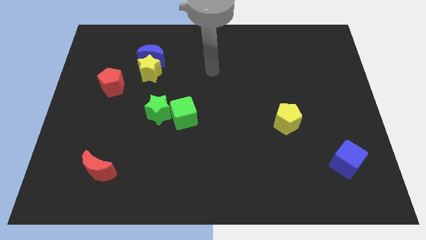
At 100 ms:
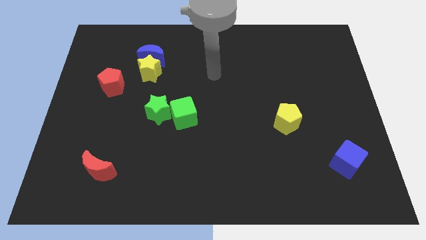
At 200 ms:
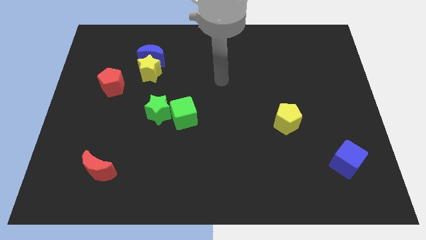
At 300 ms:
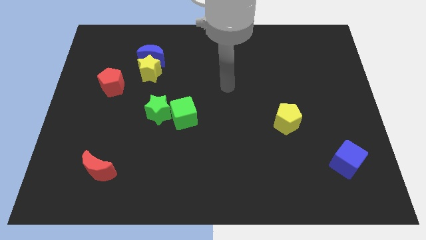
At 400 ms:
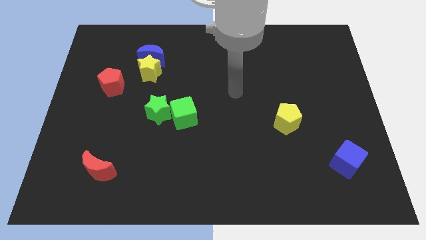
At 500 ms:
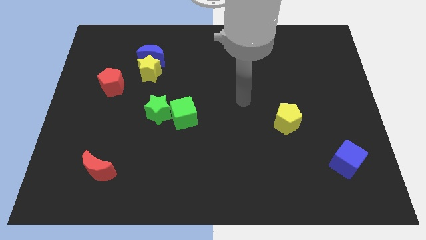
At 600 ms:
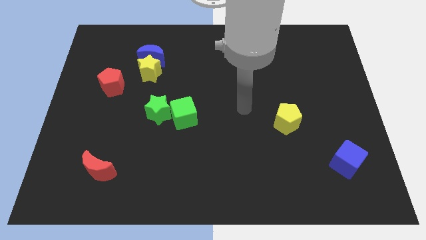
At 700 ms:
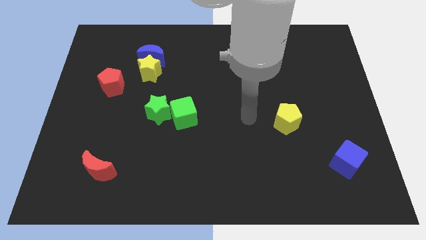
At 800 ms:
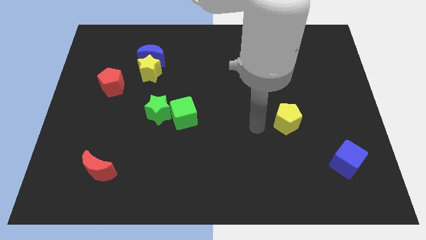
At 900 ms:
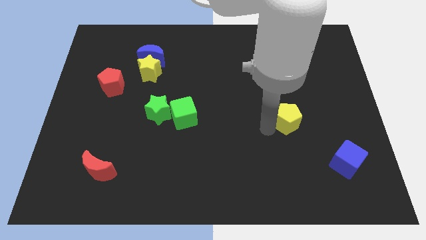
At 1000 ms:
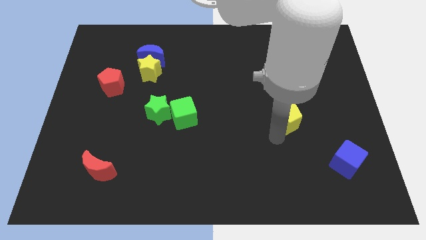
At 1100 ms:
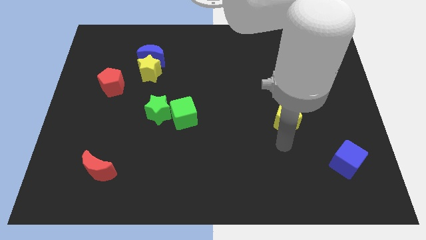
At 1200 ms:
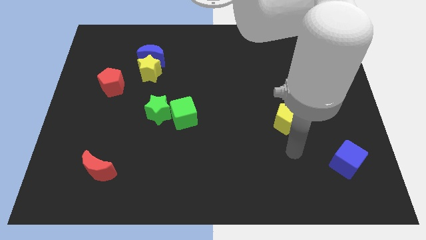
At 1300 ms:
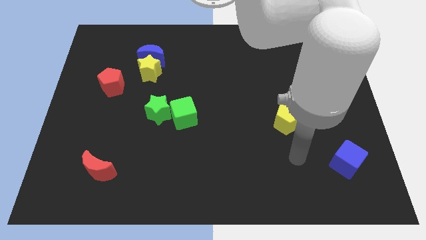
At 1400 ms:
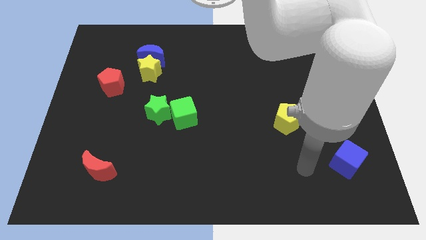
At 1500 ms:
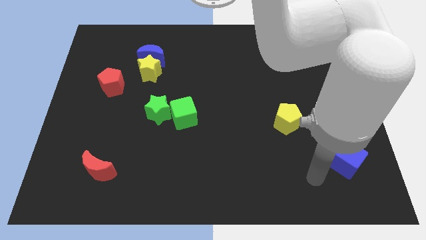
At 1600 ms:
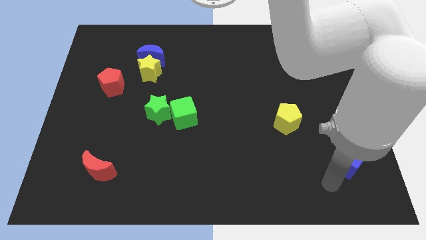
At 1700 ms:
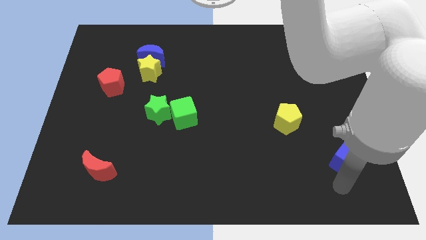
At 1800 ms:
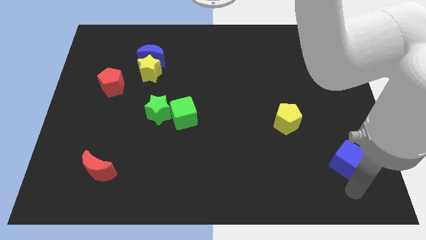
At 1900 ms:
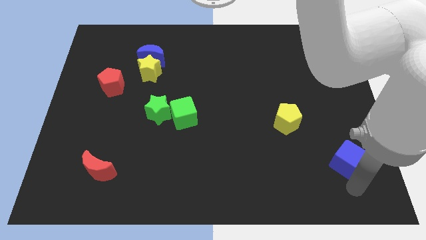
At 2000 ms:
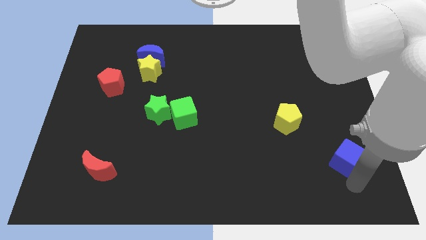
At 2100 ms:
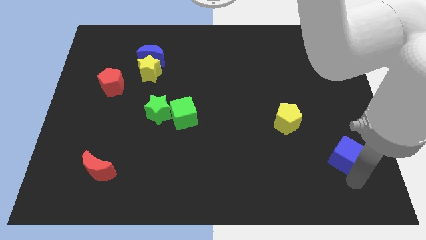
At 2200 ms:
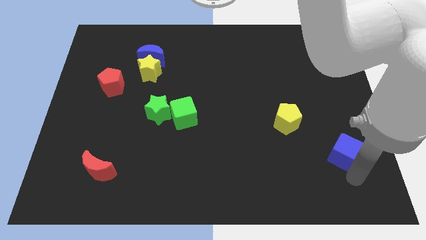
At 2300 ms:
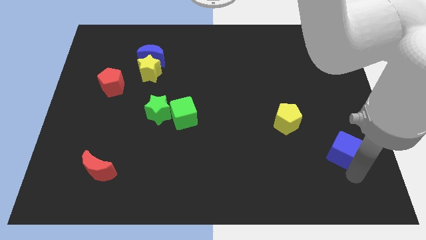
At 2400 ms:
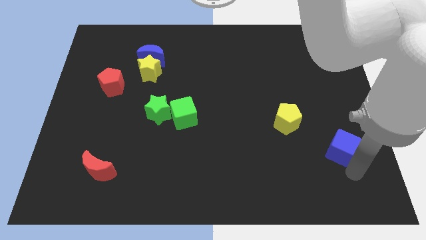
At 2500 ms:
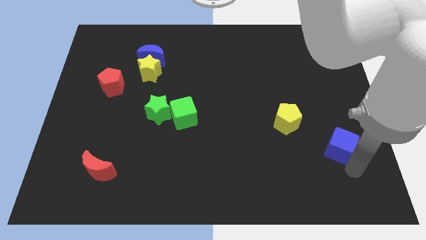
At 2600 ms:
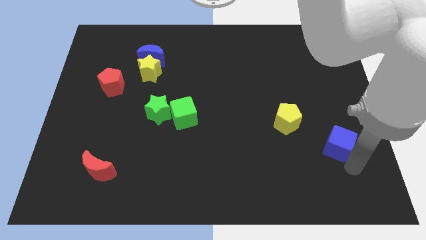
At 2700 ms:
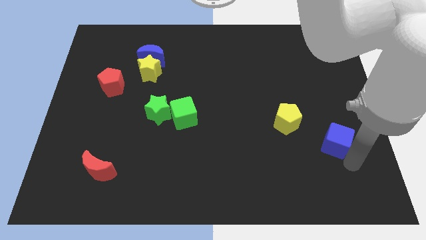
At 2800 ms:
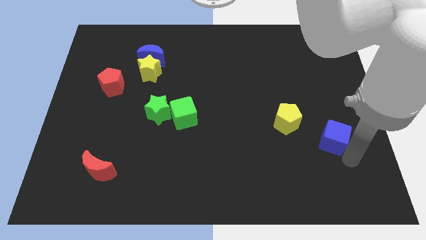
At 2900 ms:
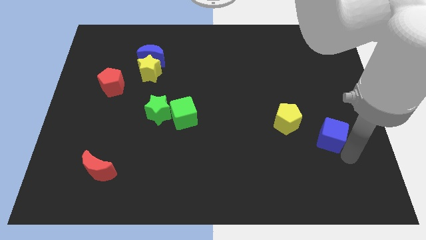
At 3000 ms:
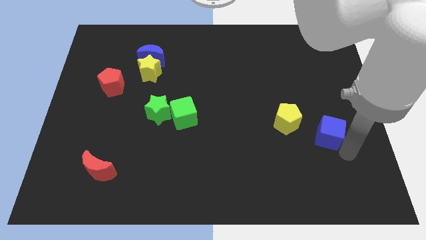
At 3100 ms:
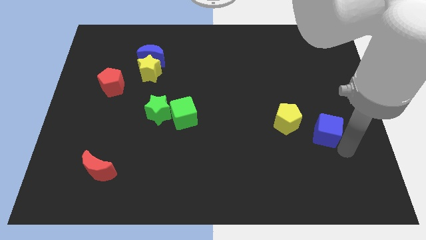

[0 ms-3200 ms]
slide the blue cube upwards slightly

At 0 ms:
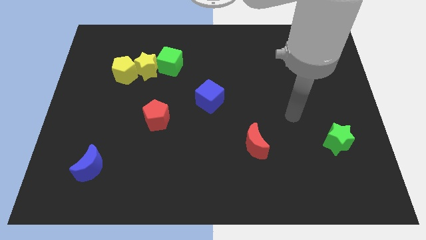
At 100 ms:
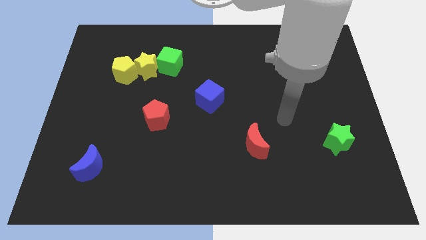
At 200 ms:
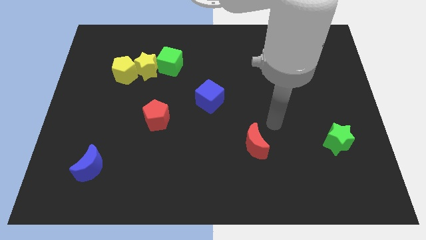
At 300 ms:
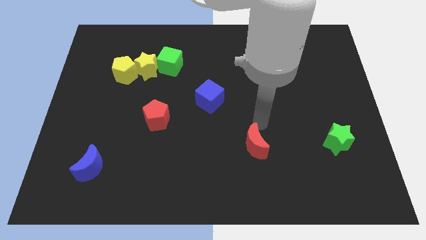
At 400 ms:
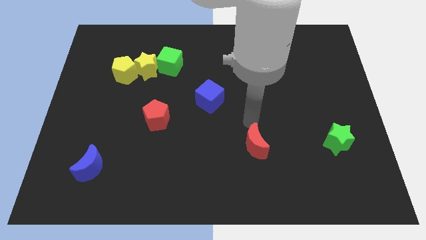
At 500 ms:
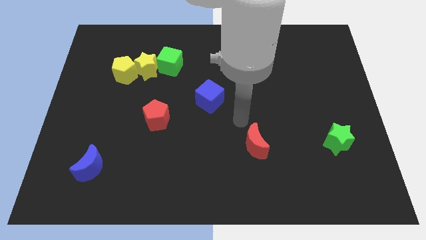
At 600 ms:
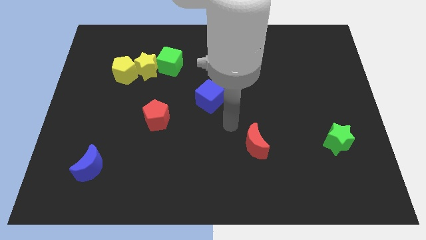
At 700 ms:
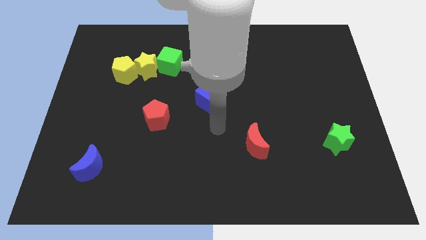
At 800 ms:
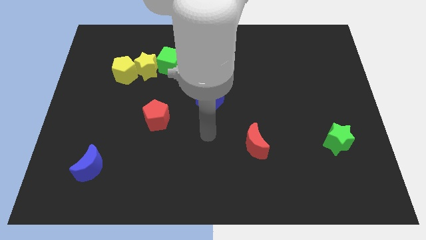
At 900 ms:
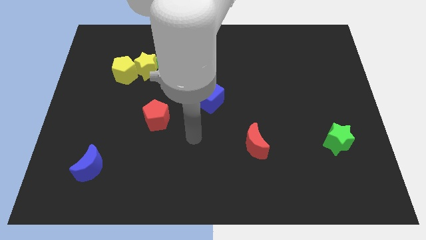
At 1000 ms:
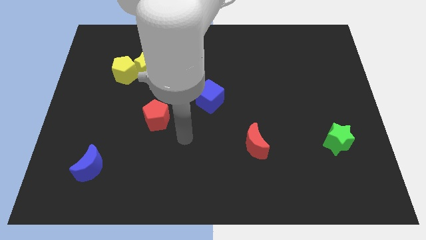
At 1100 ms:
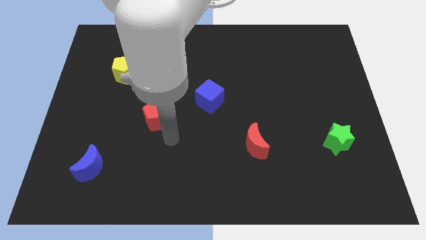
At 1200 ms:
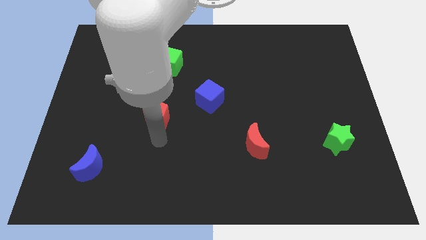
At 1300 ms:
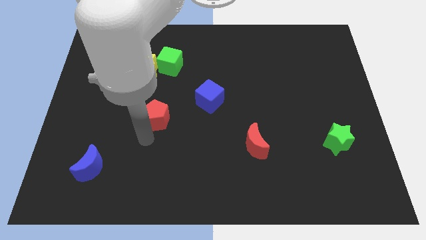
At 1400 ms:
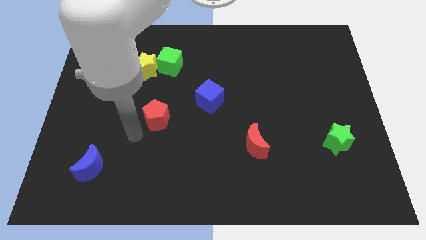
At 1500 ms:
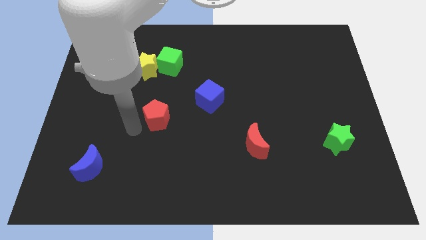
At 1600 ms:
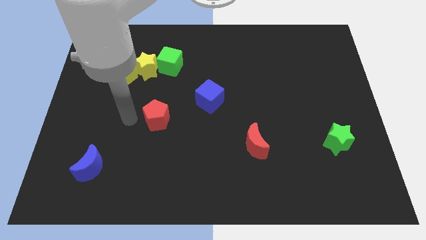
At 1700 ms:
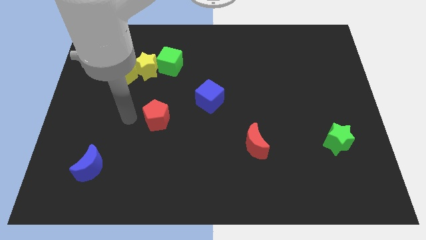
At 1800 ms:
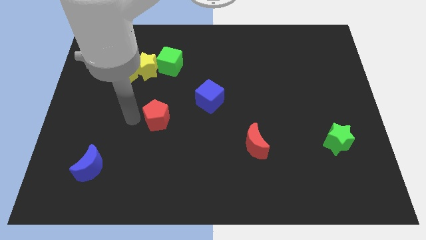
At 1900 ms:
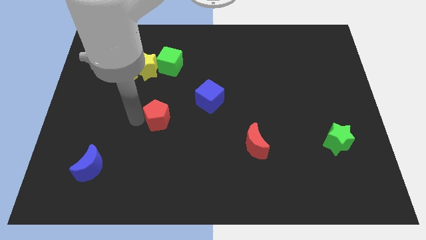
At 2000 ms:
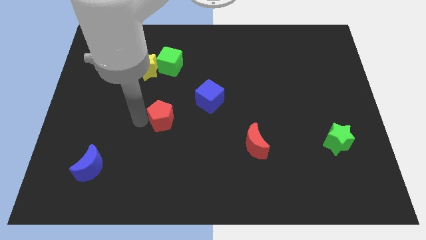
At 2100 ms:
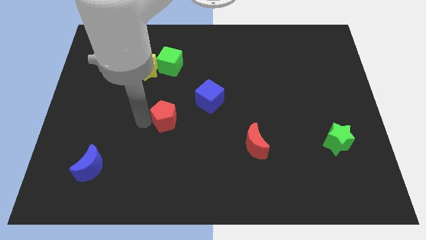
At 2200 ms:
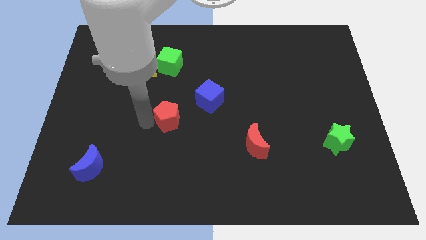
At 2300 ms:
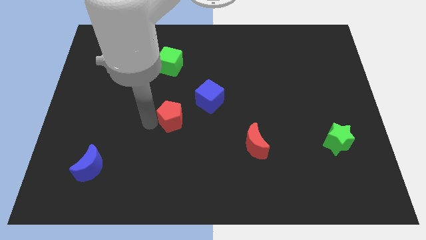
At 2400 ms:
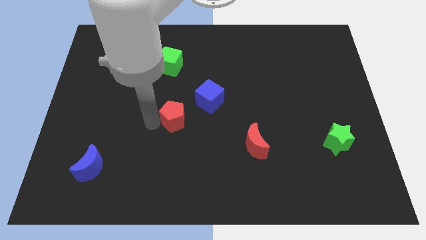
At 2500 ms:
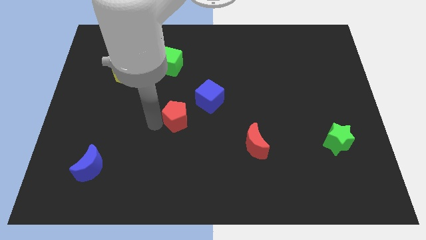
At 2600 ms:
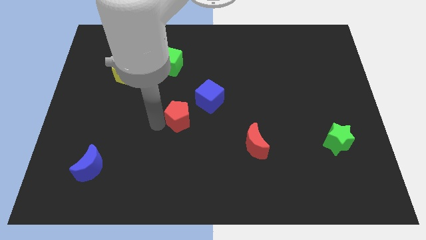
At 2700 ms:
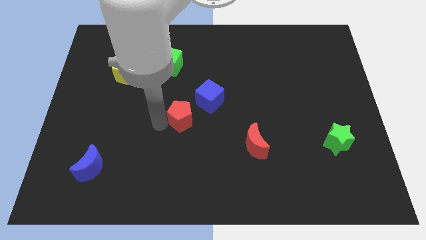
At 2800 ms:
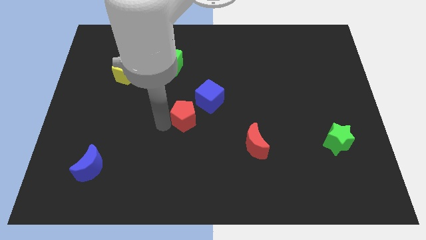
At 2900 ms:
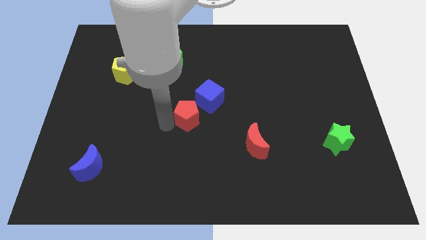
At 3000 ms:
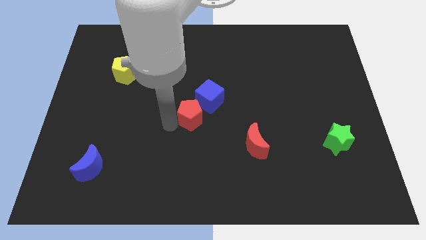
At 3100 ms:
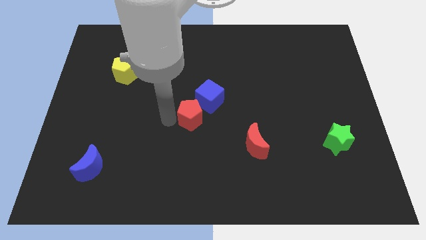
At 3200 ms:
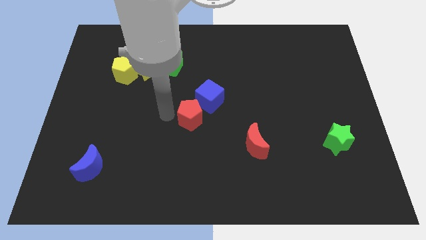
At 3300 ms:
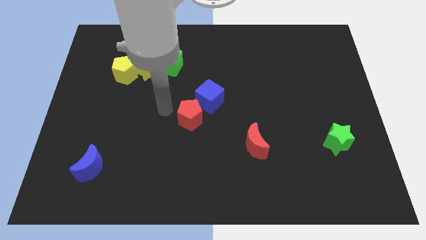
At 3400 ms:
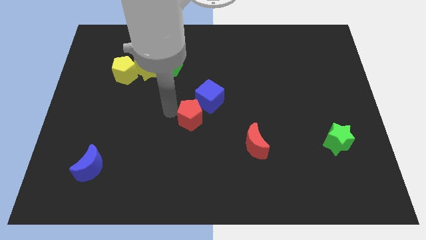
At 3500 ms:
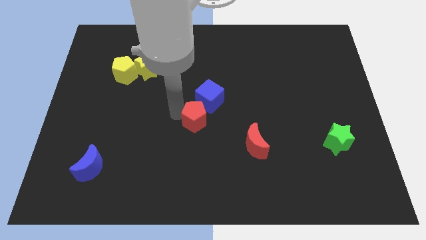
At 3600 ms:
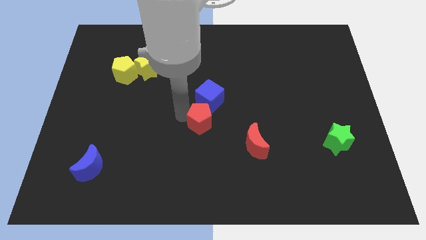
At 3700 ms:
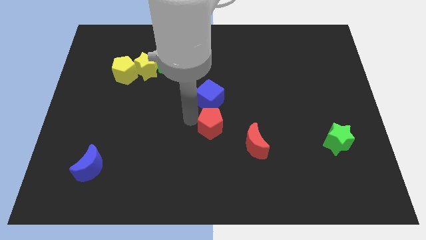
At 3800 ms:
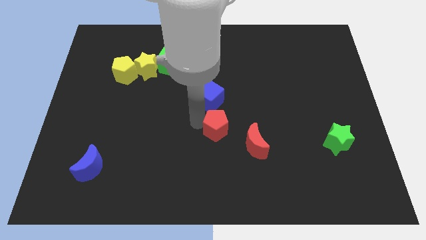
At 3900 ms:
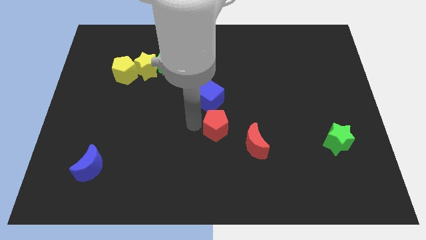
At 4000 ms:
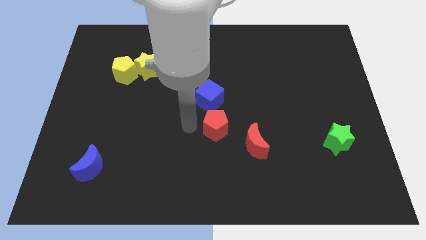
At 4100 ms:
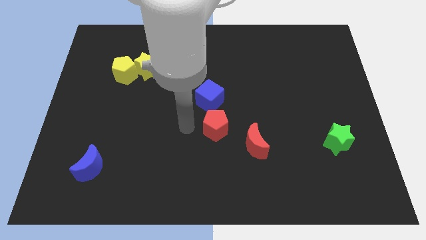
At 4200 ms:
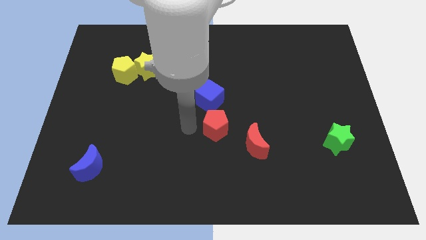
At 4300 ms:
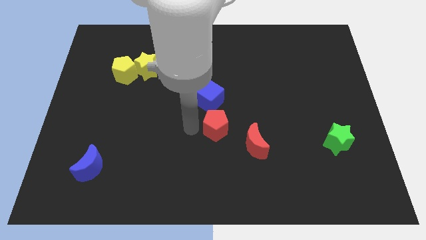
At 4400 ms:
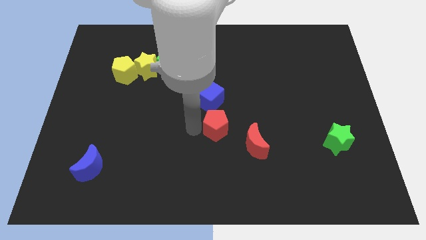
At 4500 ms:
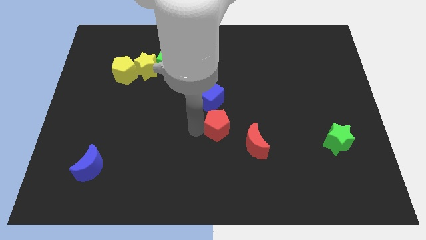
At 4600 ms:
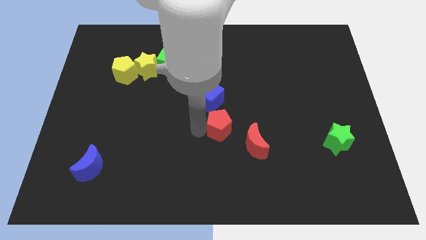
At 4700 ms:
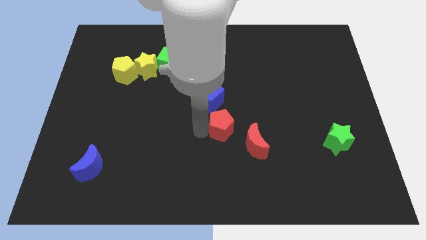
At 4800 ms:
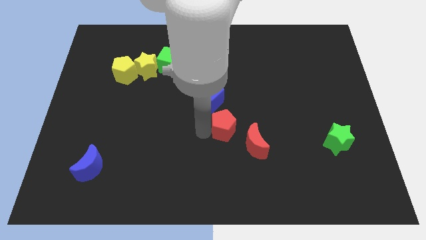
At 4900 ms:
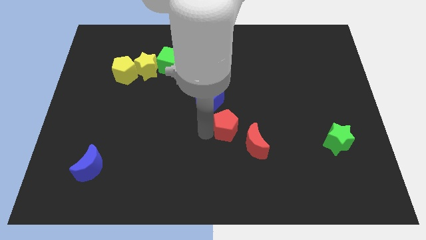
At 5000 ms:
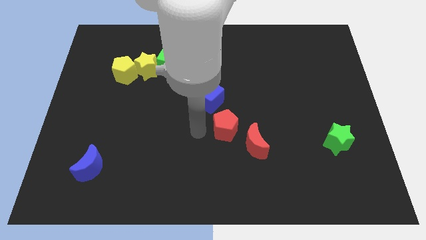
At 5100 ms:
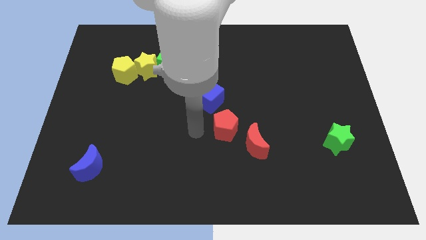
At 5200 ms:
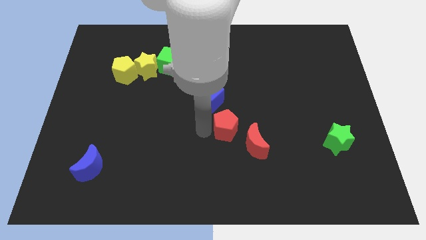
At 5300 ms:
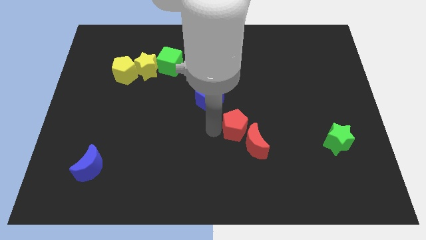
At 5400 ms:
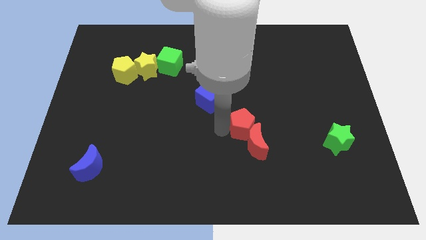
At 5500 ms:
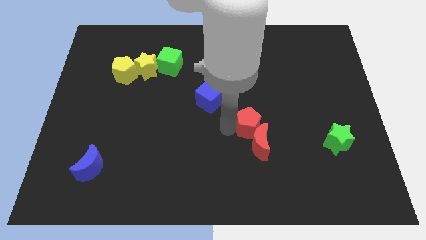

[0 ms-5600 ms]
push the red pentagon to the right
